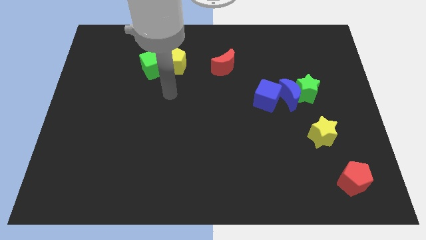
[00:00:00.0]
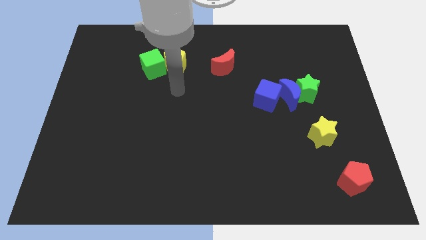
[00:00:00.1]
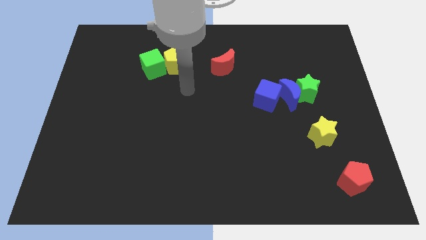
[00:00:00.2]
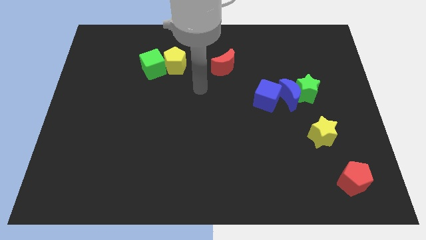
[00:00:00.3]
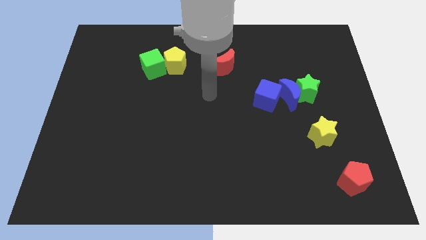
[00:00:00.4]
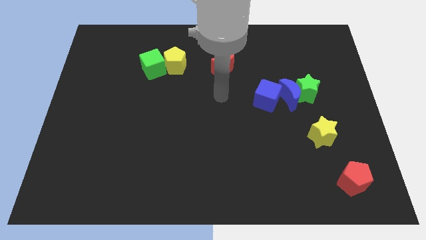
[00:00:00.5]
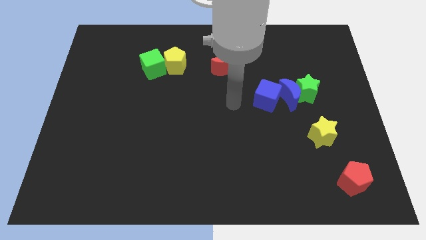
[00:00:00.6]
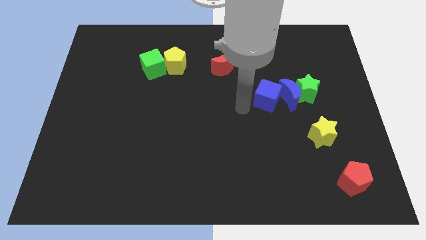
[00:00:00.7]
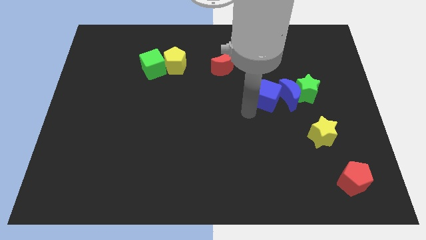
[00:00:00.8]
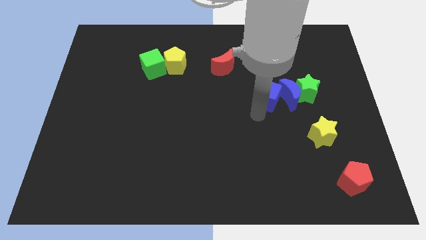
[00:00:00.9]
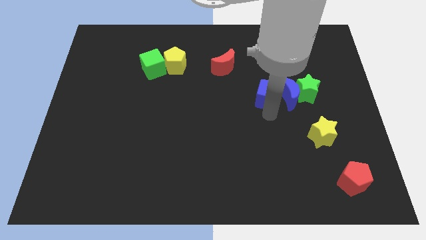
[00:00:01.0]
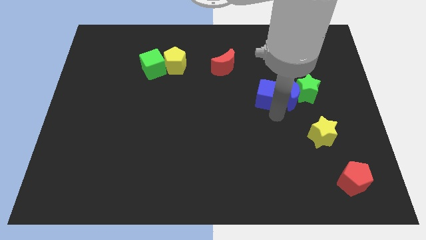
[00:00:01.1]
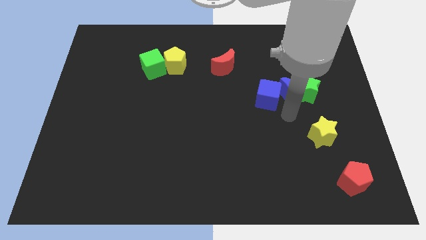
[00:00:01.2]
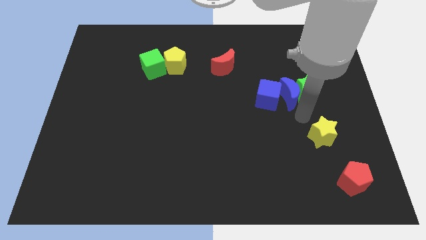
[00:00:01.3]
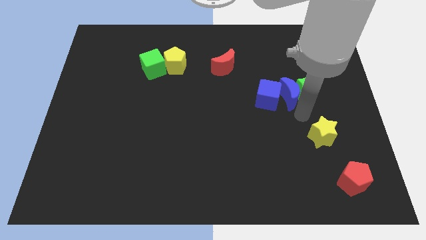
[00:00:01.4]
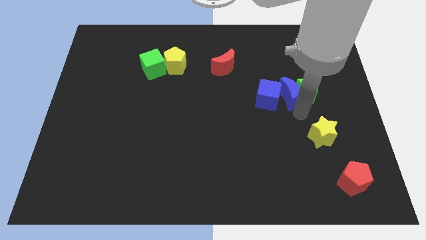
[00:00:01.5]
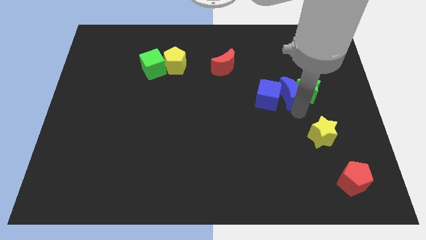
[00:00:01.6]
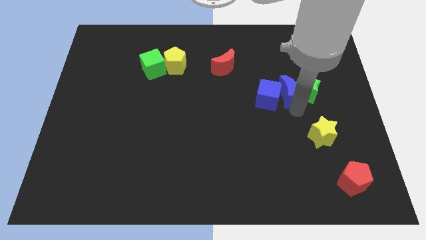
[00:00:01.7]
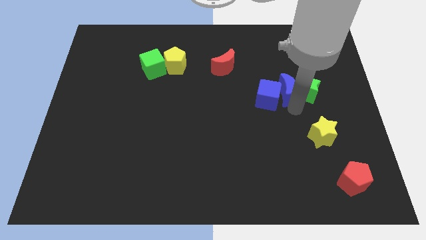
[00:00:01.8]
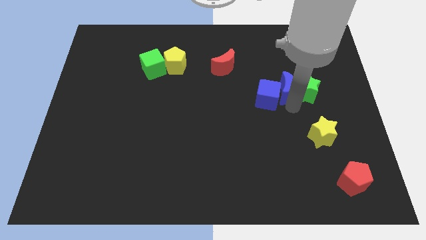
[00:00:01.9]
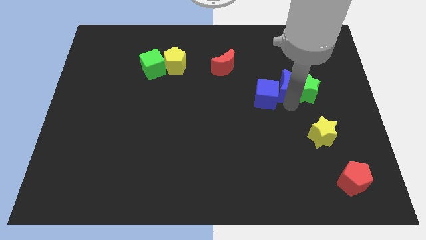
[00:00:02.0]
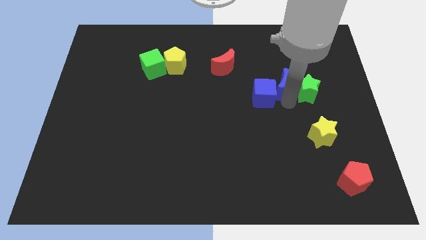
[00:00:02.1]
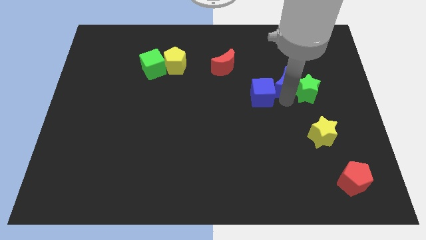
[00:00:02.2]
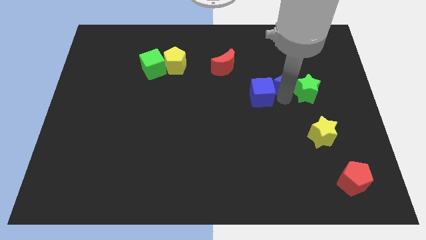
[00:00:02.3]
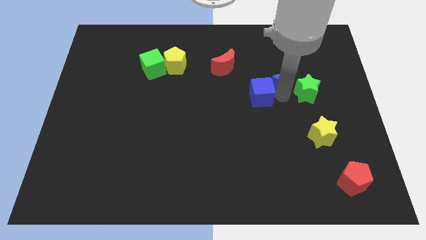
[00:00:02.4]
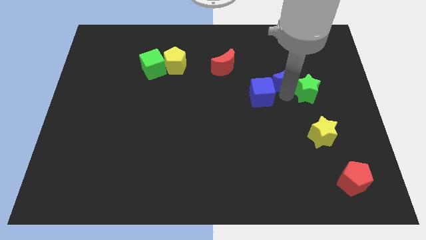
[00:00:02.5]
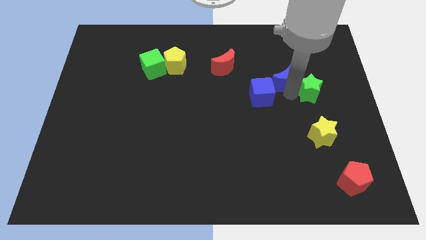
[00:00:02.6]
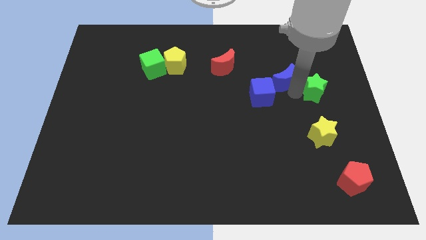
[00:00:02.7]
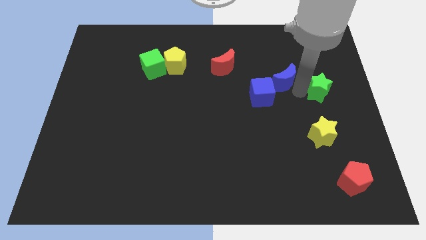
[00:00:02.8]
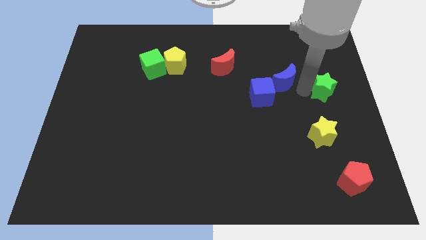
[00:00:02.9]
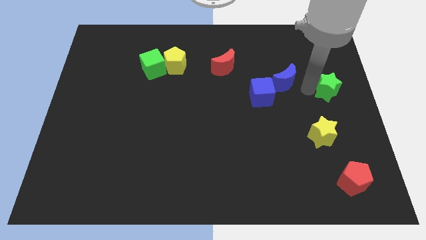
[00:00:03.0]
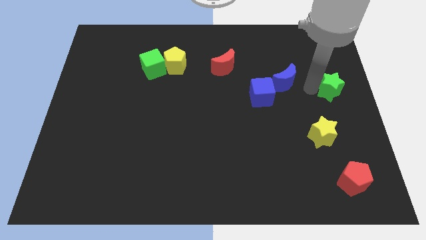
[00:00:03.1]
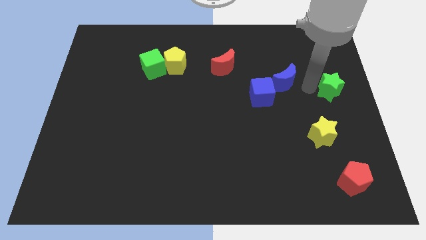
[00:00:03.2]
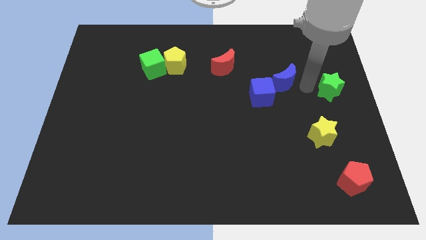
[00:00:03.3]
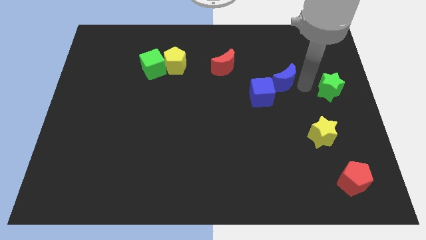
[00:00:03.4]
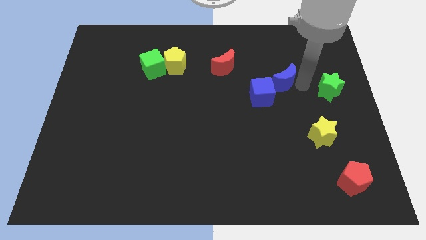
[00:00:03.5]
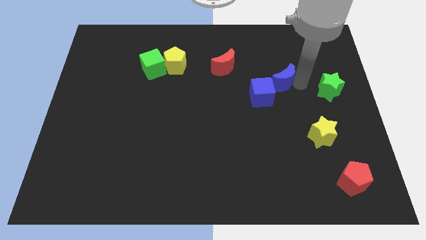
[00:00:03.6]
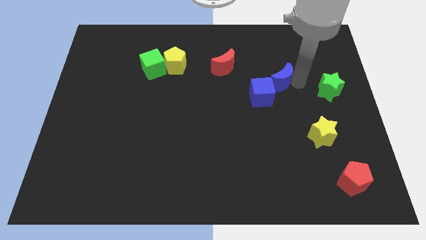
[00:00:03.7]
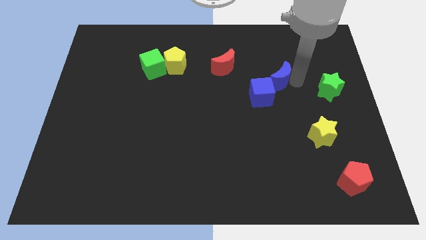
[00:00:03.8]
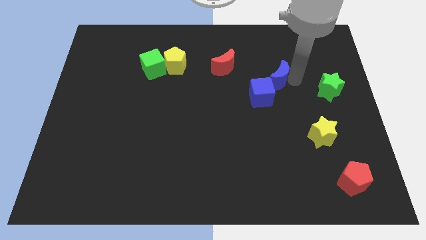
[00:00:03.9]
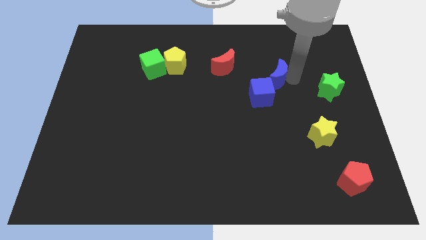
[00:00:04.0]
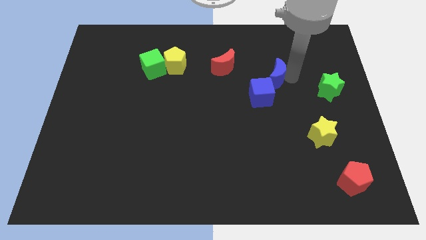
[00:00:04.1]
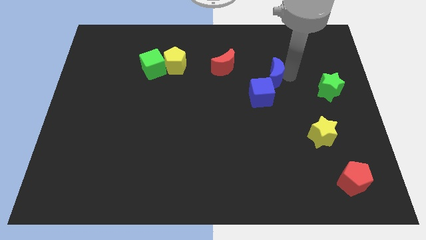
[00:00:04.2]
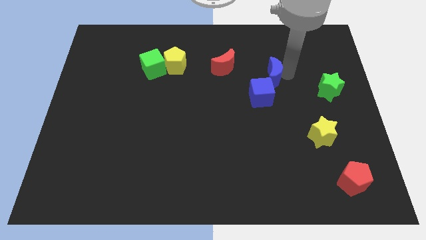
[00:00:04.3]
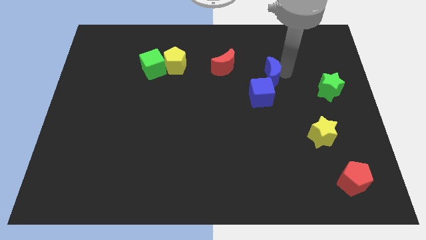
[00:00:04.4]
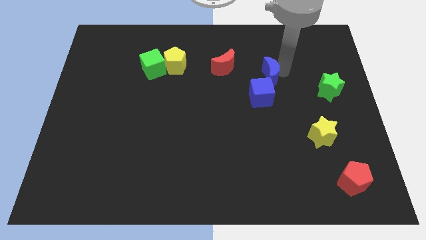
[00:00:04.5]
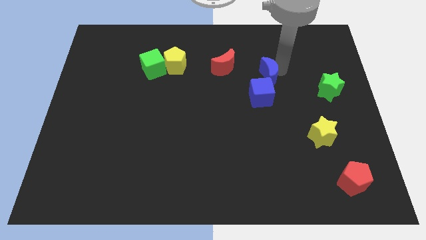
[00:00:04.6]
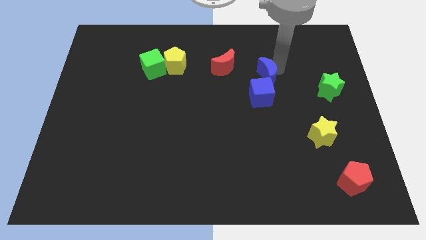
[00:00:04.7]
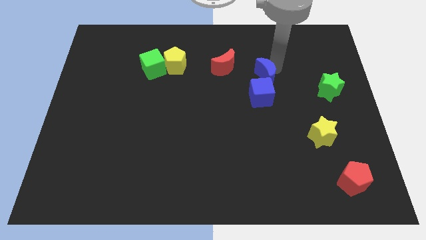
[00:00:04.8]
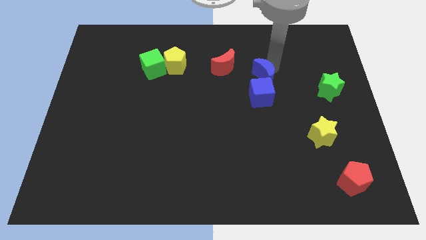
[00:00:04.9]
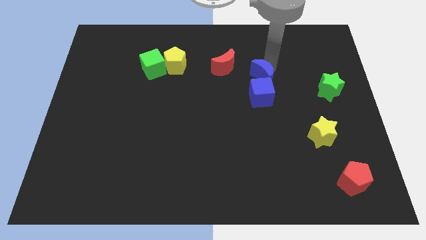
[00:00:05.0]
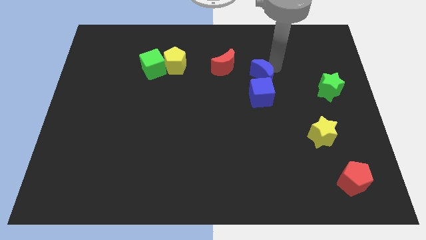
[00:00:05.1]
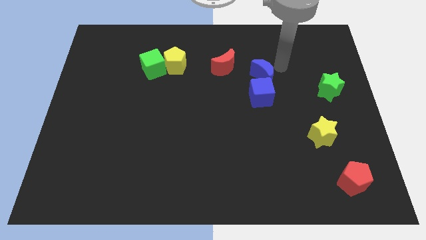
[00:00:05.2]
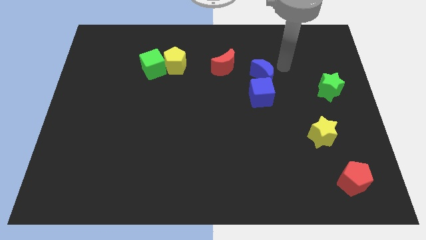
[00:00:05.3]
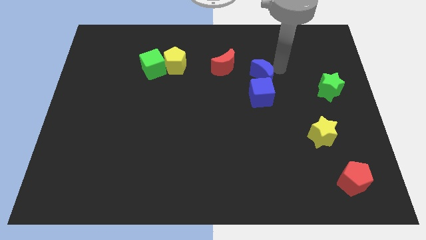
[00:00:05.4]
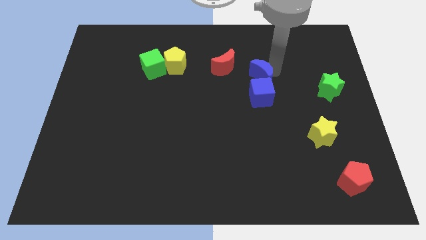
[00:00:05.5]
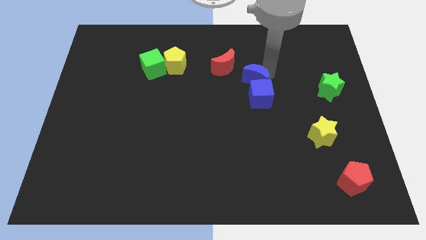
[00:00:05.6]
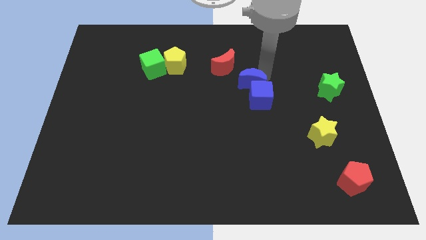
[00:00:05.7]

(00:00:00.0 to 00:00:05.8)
push the blue moon somewhat left

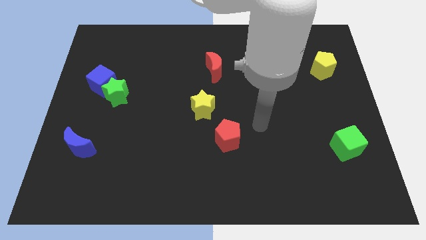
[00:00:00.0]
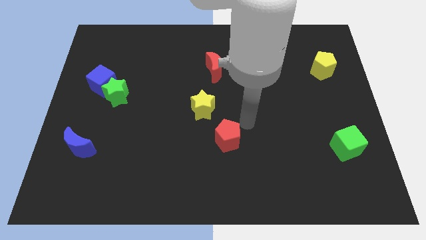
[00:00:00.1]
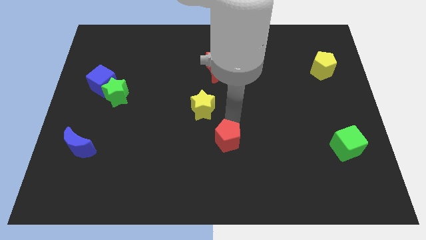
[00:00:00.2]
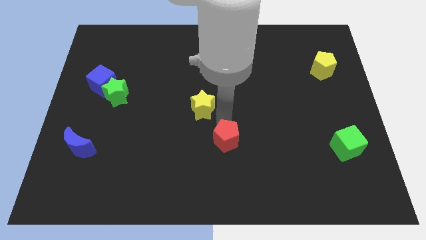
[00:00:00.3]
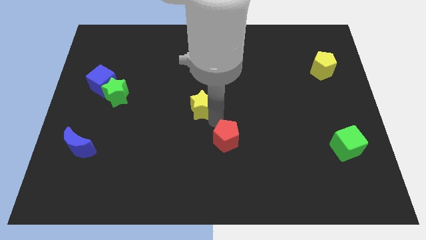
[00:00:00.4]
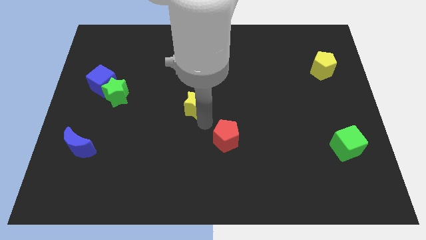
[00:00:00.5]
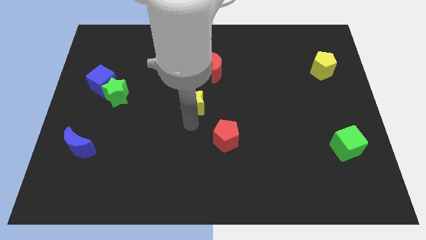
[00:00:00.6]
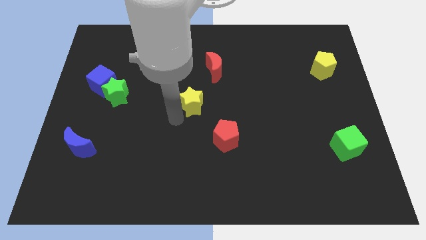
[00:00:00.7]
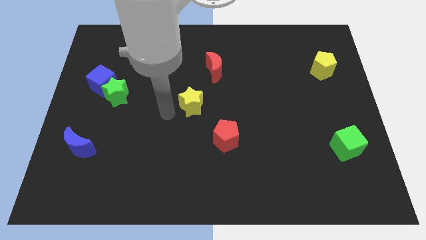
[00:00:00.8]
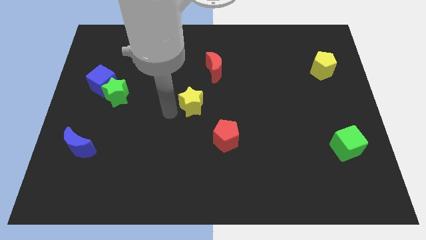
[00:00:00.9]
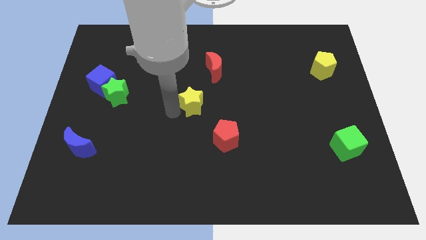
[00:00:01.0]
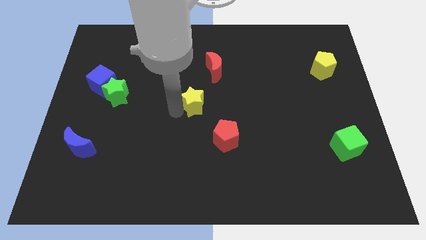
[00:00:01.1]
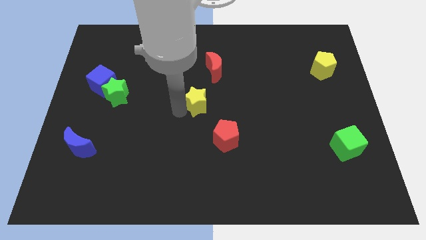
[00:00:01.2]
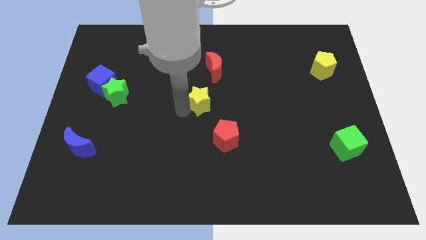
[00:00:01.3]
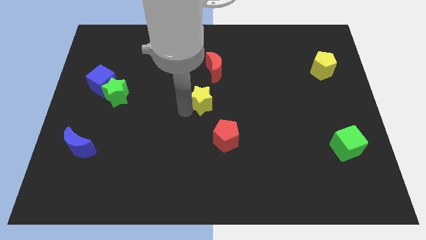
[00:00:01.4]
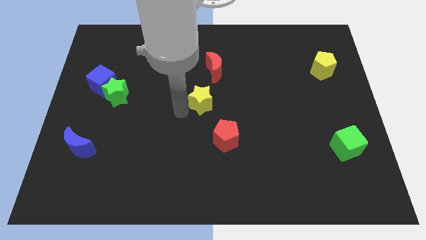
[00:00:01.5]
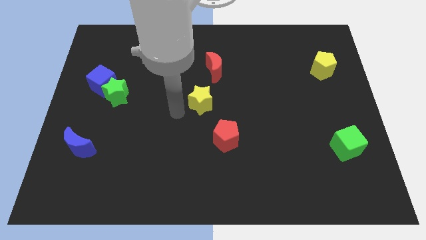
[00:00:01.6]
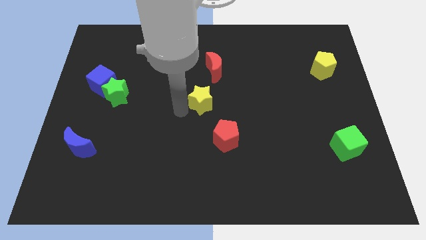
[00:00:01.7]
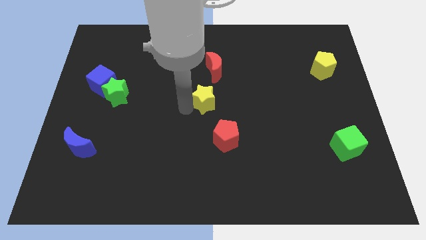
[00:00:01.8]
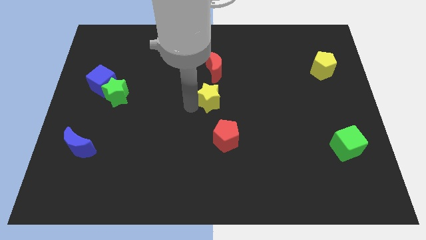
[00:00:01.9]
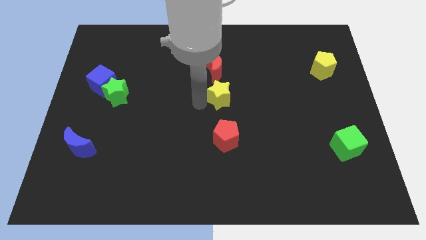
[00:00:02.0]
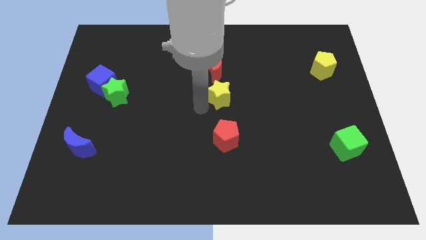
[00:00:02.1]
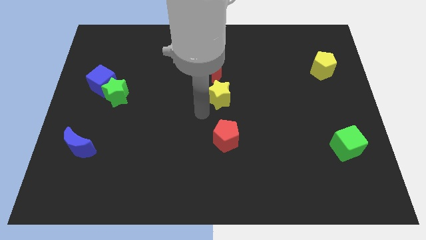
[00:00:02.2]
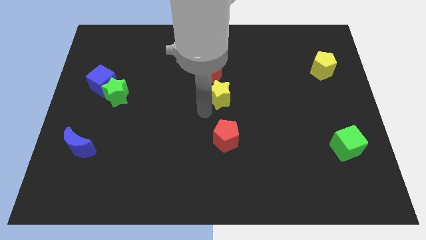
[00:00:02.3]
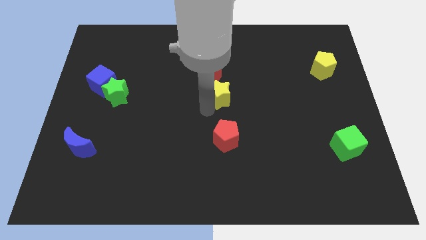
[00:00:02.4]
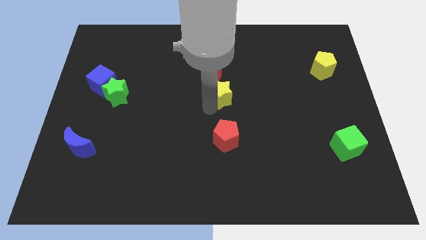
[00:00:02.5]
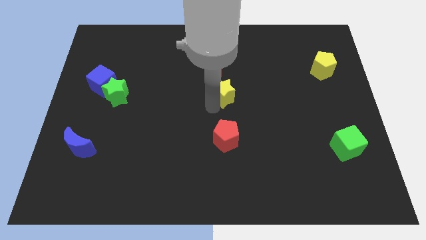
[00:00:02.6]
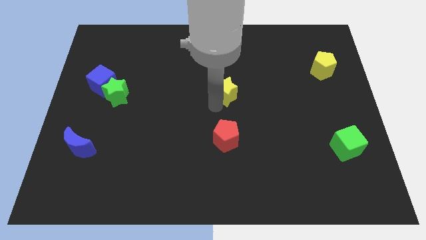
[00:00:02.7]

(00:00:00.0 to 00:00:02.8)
push the yellow star upwards and right diagonally a little
